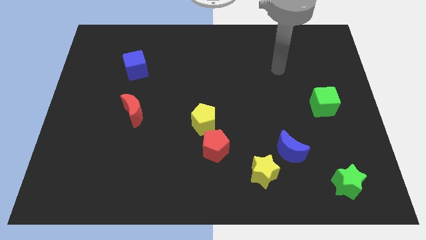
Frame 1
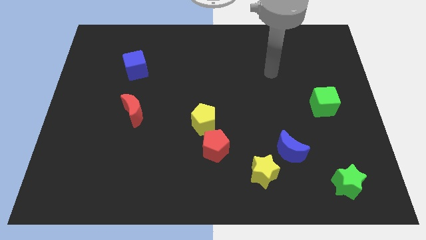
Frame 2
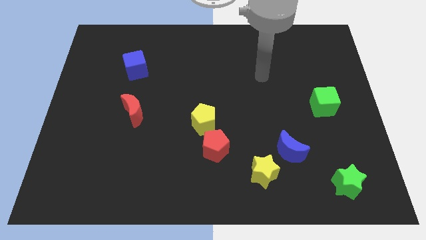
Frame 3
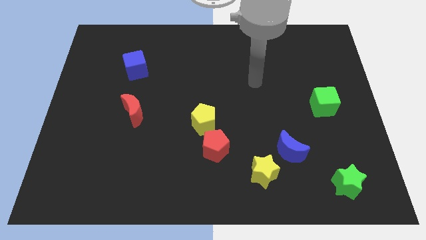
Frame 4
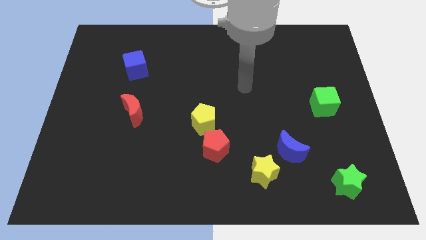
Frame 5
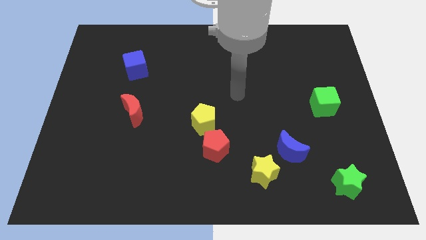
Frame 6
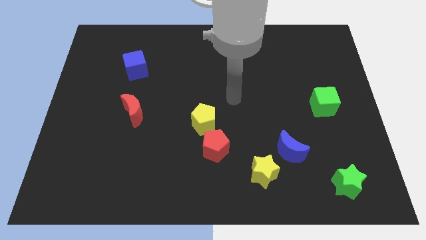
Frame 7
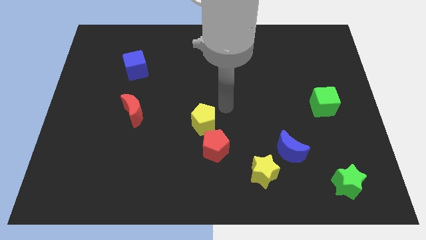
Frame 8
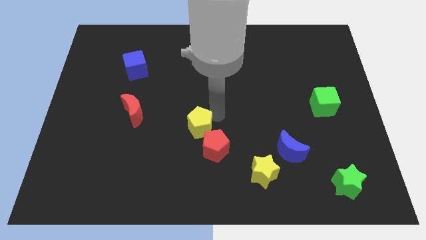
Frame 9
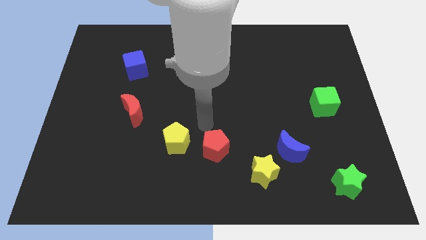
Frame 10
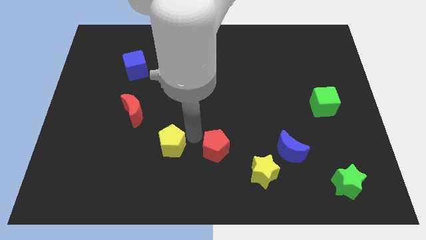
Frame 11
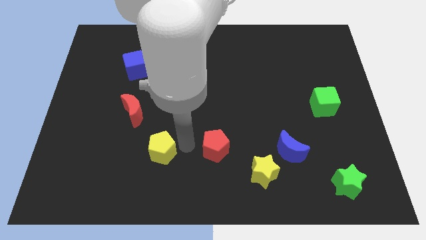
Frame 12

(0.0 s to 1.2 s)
move the red pentagon away from the yellow pentagon

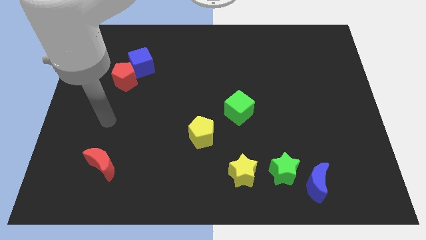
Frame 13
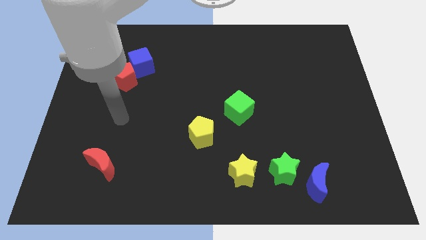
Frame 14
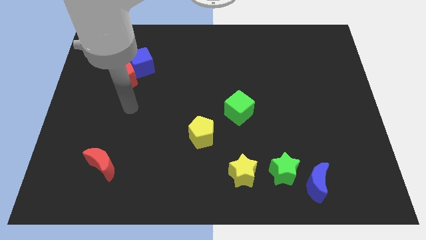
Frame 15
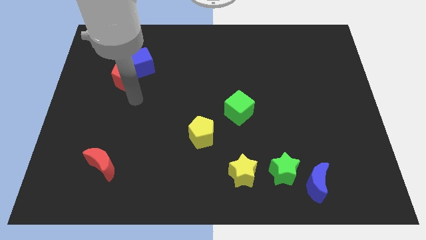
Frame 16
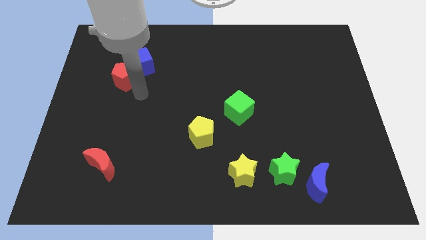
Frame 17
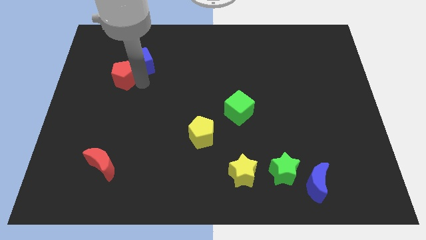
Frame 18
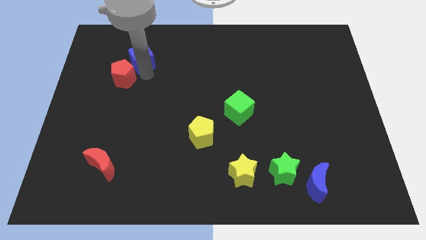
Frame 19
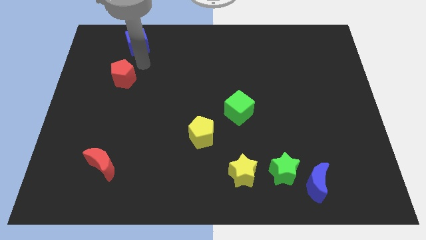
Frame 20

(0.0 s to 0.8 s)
pull the red pentagon apart from the blue cube

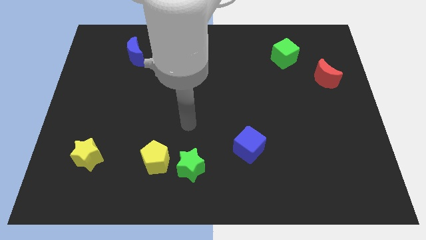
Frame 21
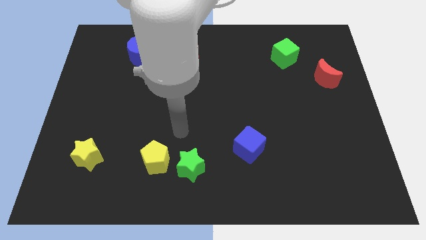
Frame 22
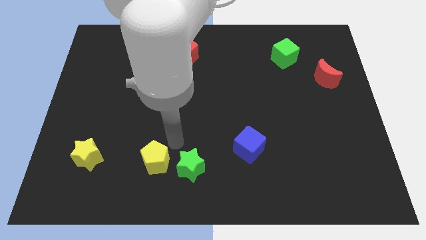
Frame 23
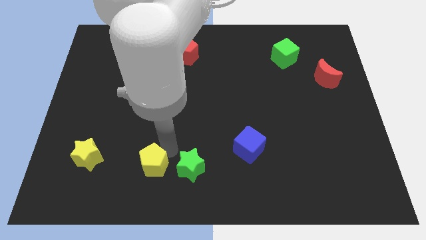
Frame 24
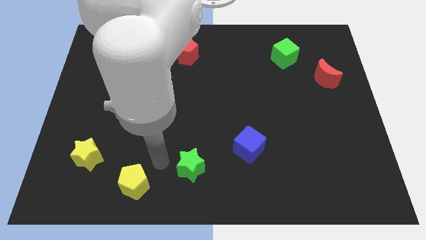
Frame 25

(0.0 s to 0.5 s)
pull the green star apart from the yellow pentagon

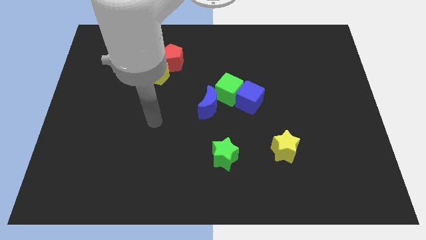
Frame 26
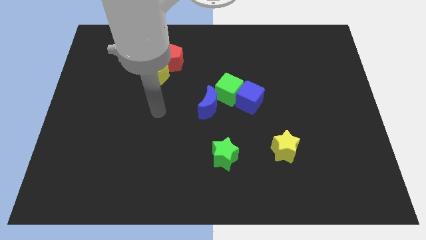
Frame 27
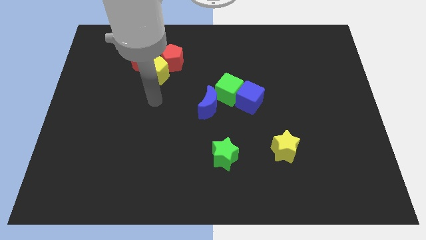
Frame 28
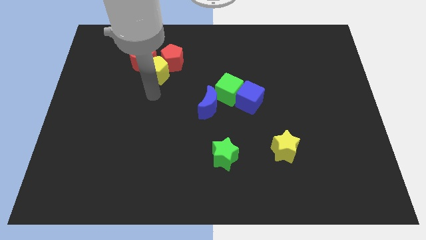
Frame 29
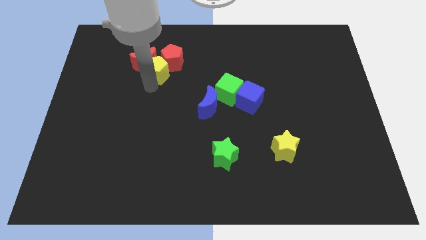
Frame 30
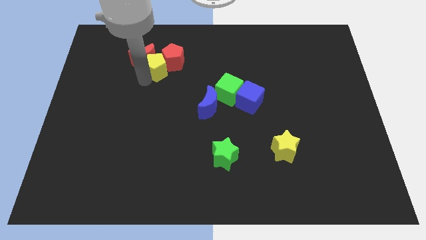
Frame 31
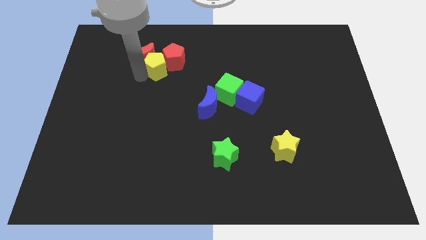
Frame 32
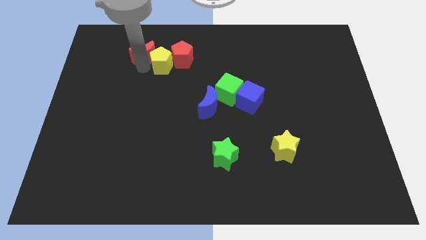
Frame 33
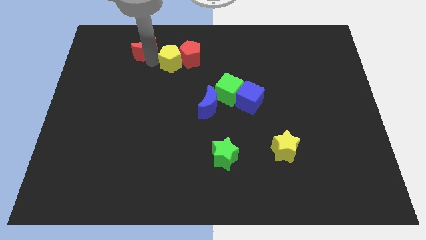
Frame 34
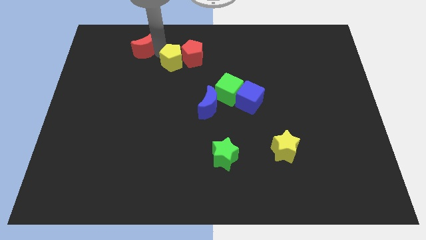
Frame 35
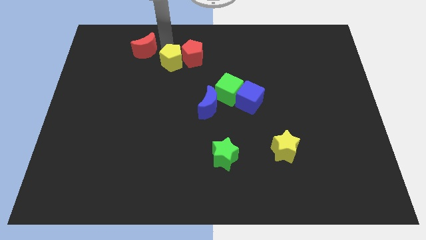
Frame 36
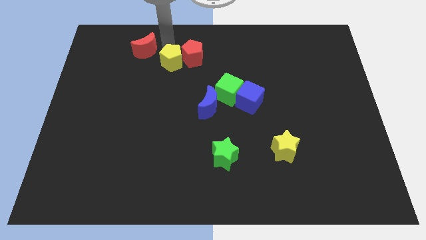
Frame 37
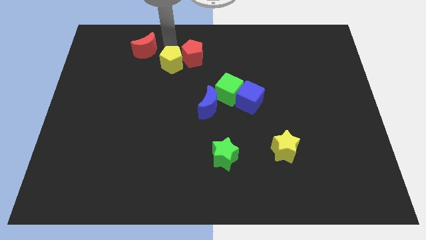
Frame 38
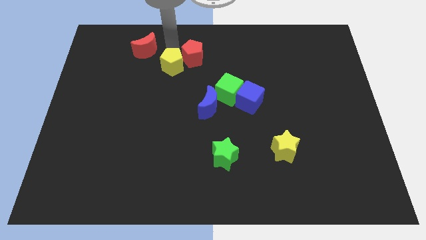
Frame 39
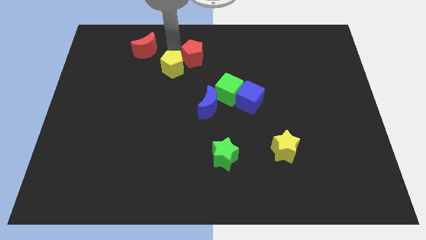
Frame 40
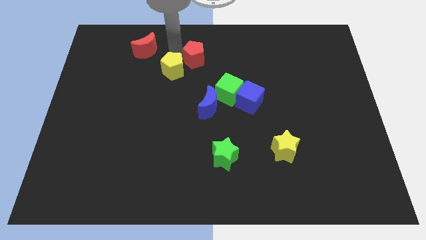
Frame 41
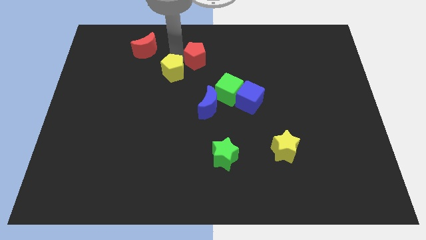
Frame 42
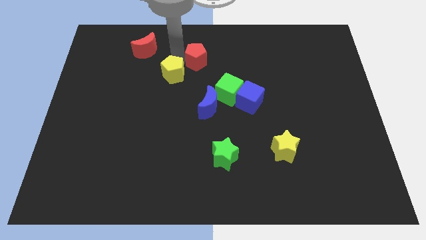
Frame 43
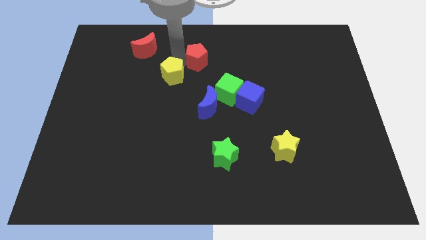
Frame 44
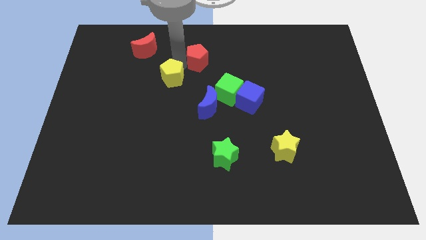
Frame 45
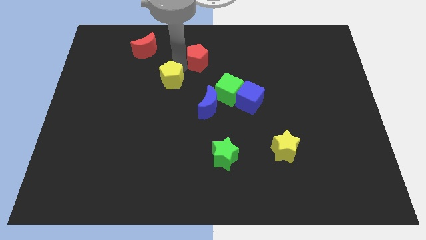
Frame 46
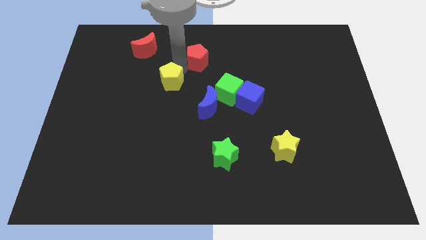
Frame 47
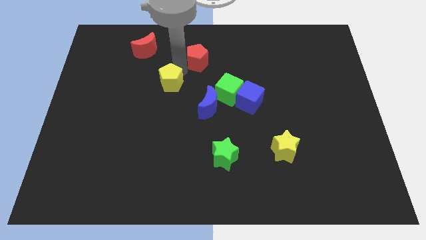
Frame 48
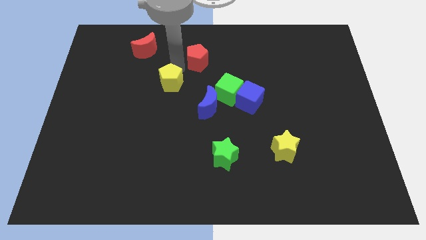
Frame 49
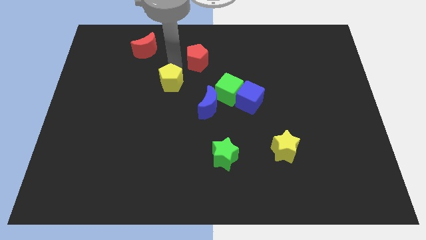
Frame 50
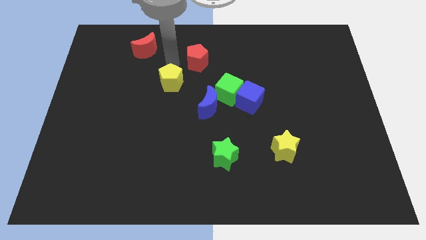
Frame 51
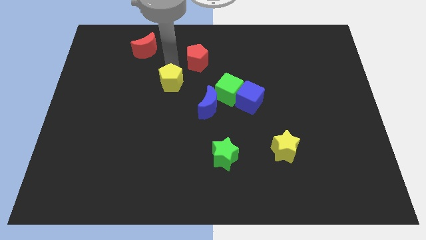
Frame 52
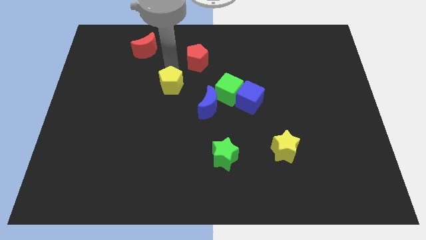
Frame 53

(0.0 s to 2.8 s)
pull the yellow pentagon apart from the red moon and red pentagon

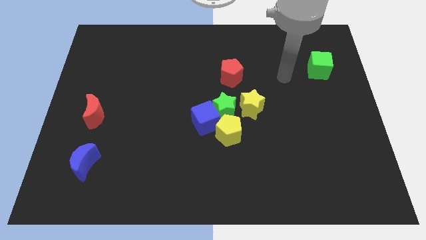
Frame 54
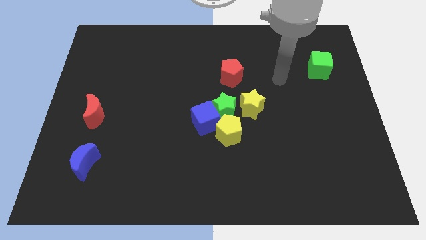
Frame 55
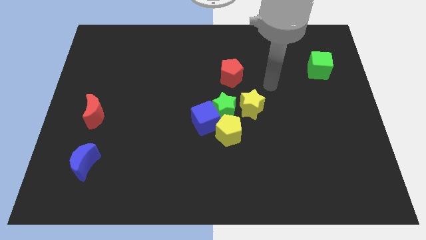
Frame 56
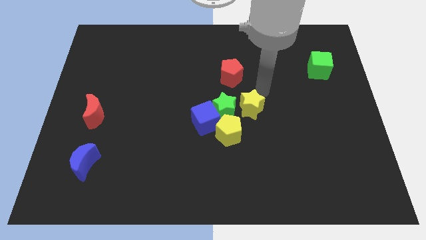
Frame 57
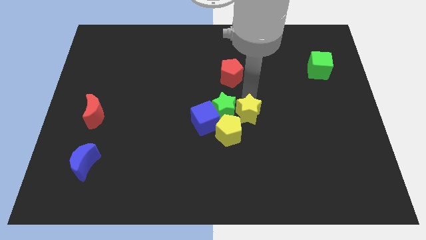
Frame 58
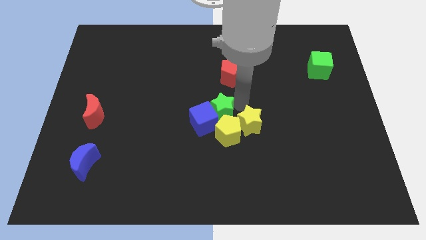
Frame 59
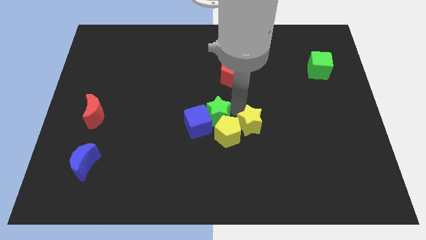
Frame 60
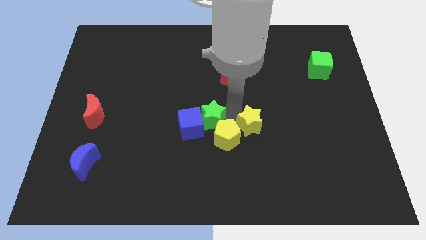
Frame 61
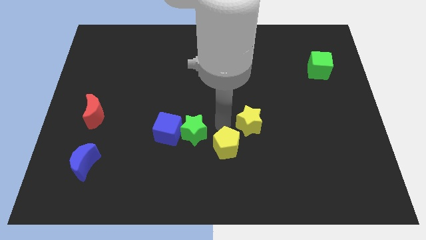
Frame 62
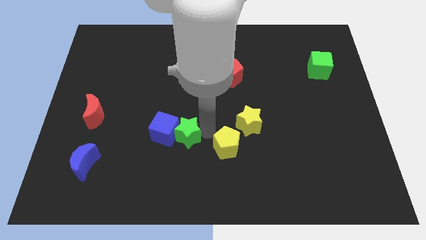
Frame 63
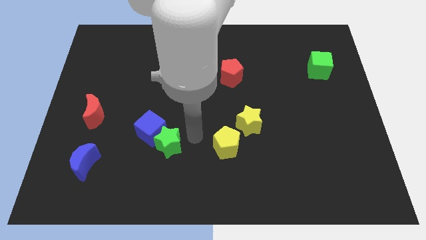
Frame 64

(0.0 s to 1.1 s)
pull the blue cube apart from the green star and yellow pentagon

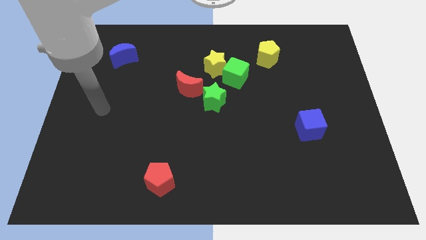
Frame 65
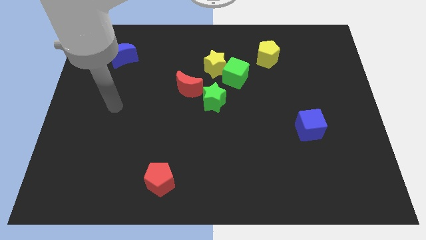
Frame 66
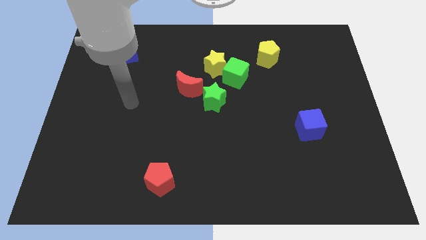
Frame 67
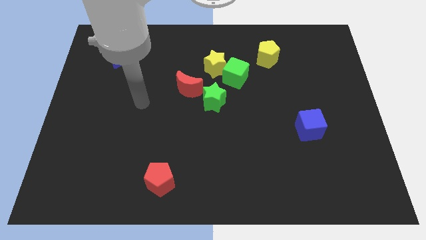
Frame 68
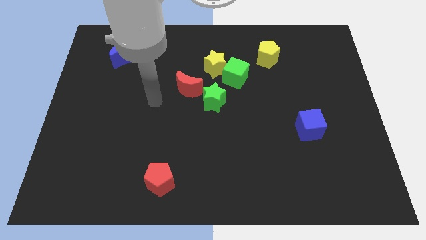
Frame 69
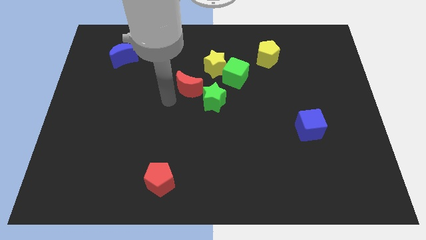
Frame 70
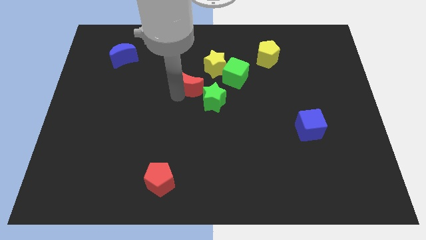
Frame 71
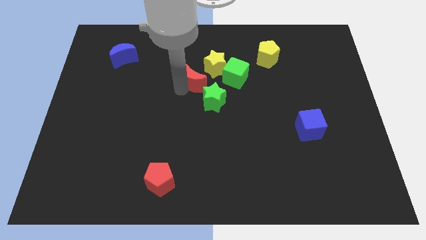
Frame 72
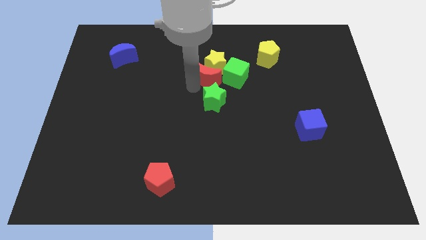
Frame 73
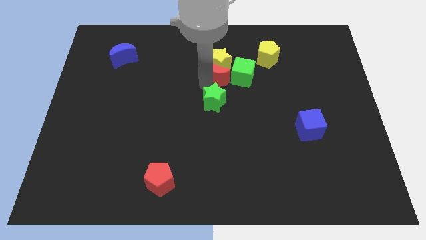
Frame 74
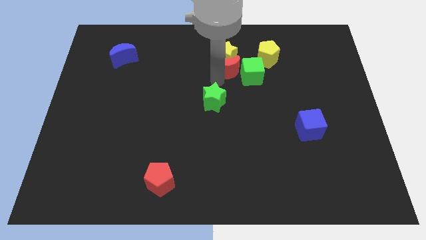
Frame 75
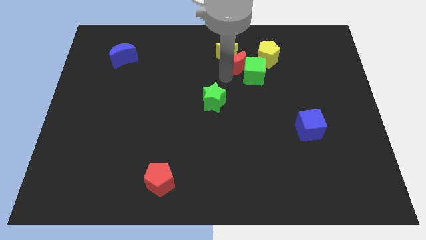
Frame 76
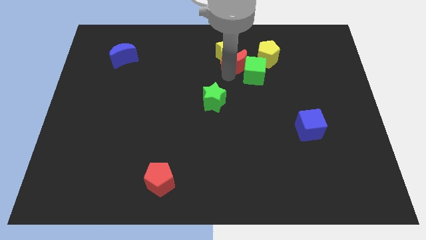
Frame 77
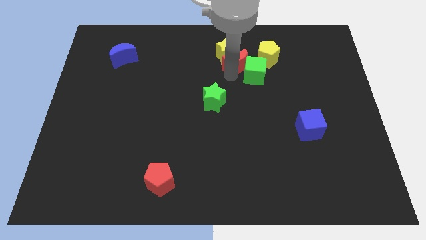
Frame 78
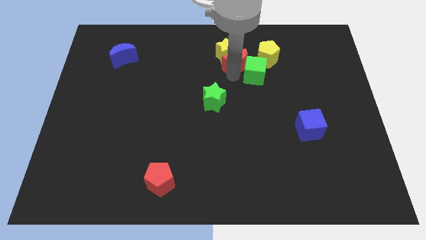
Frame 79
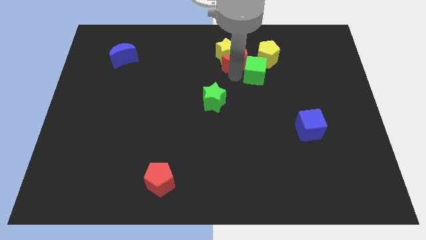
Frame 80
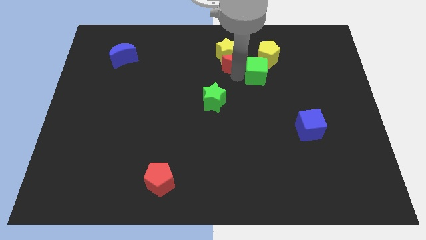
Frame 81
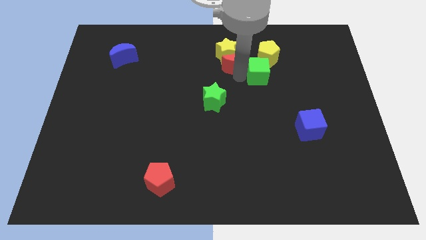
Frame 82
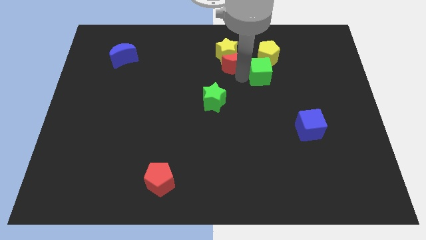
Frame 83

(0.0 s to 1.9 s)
pull the green cube apart from the yellow star and green star

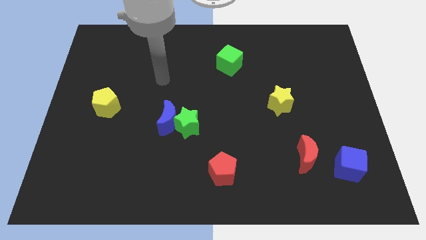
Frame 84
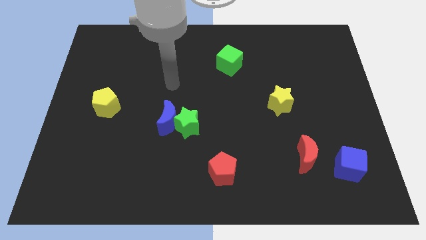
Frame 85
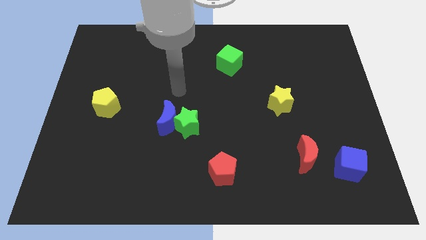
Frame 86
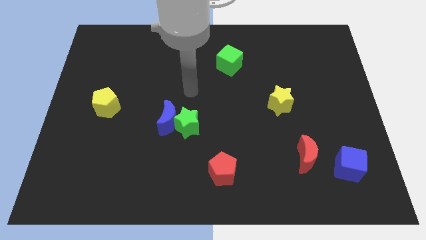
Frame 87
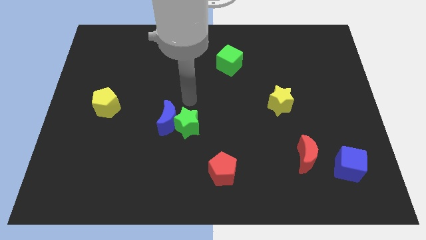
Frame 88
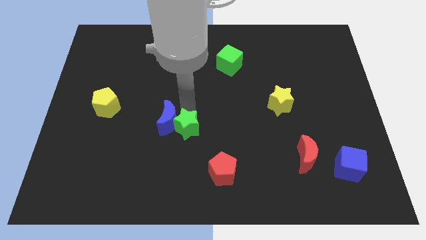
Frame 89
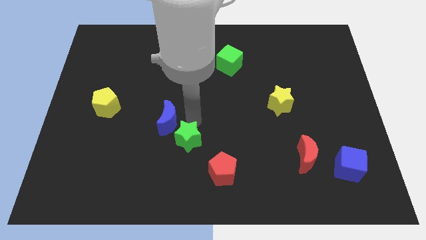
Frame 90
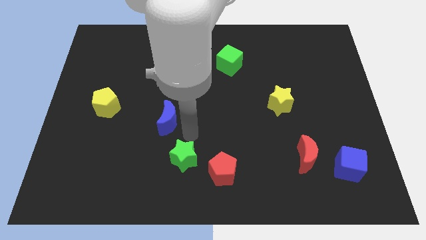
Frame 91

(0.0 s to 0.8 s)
separate the blue moon from the green star

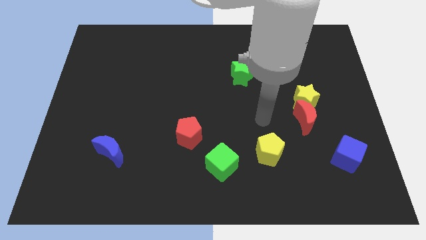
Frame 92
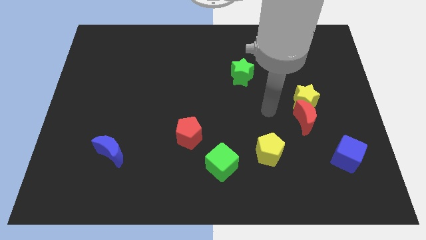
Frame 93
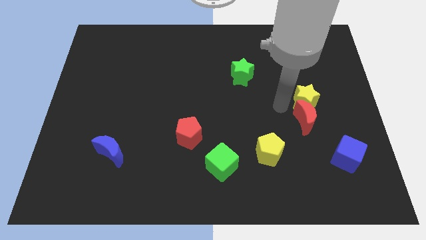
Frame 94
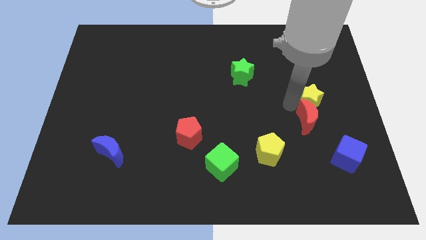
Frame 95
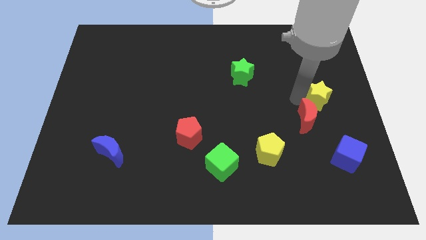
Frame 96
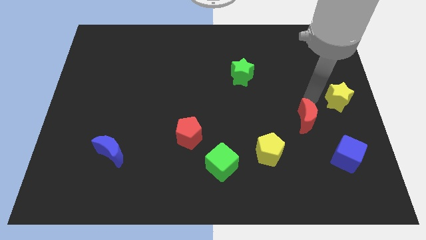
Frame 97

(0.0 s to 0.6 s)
pull the red moon apart from the yellow star
